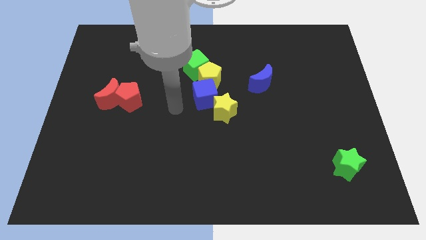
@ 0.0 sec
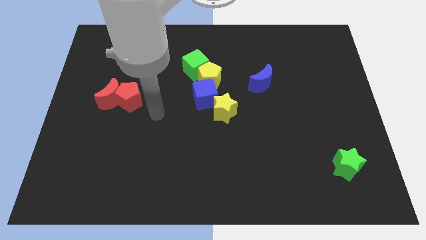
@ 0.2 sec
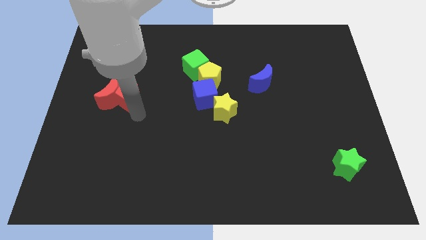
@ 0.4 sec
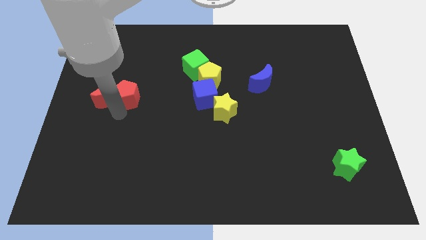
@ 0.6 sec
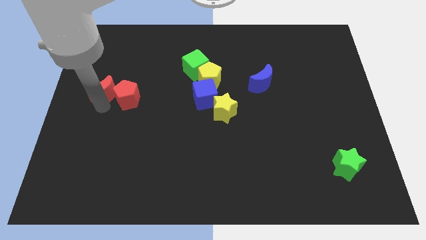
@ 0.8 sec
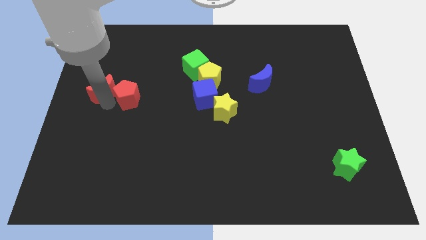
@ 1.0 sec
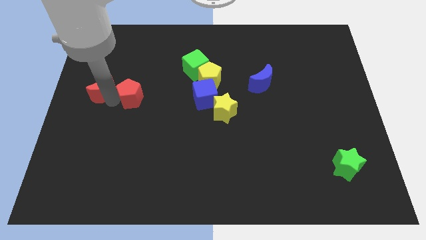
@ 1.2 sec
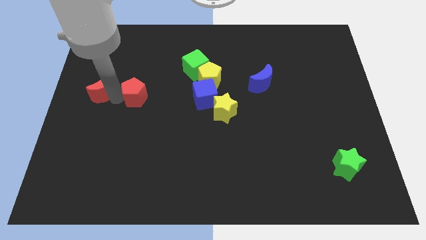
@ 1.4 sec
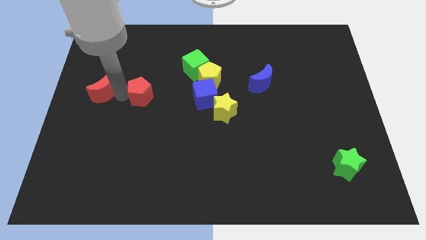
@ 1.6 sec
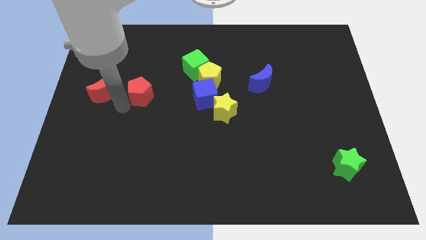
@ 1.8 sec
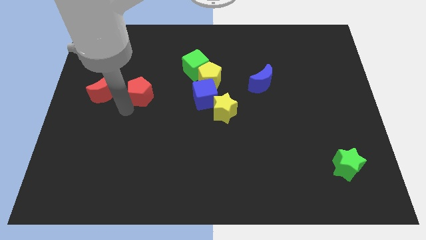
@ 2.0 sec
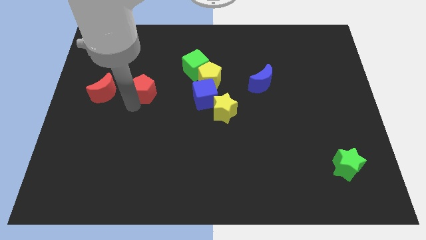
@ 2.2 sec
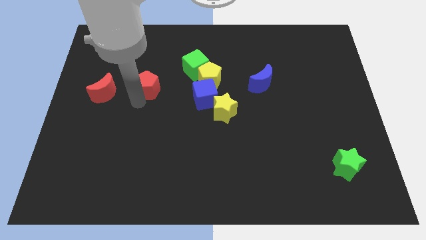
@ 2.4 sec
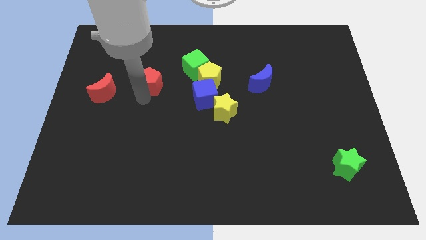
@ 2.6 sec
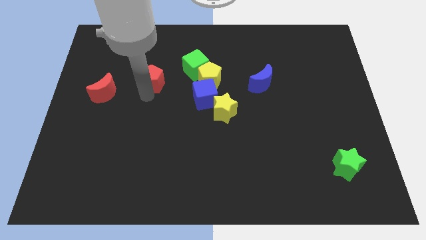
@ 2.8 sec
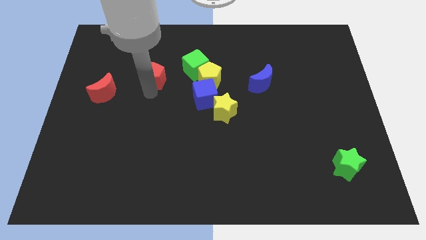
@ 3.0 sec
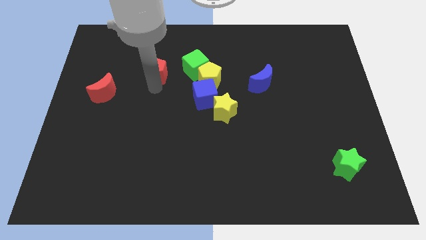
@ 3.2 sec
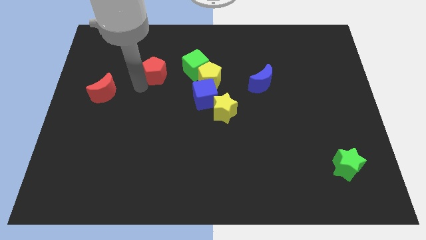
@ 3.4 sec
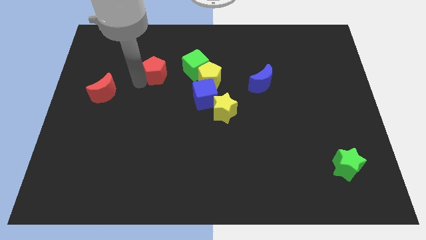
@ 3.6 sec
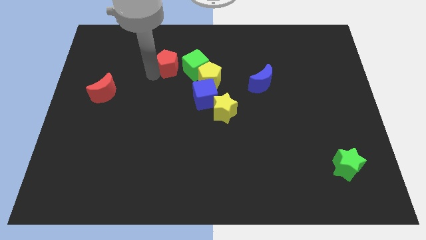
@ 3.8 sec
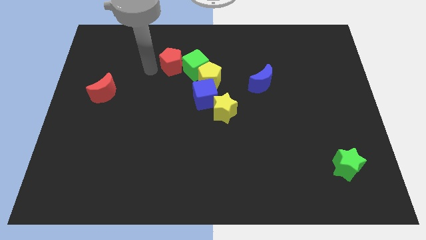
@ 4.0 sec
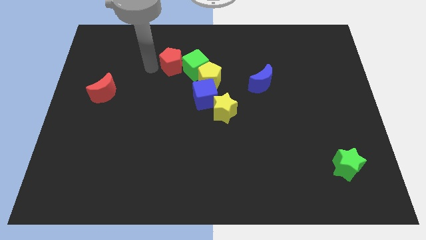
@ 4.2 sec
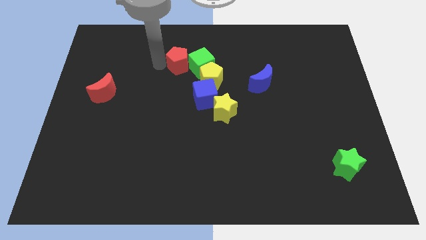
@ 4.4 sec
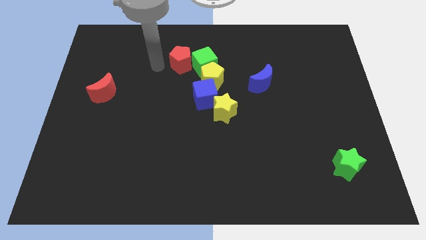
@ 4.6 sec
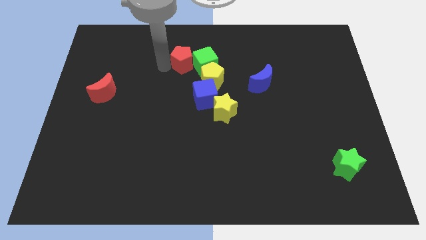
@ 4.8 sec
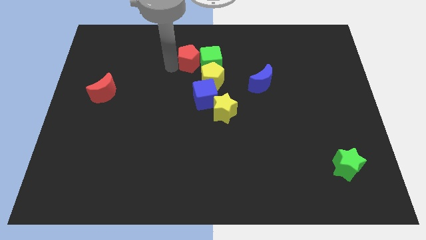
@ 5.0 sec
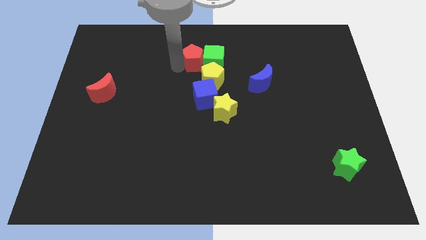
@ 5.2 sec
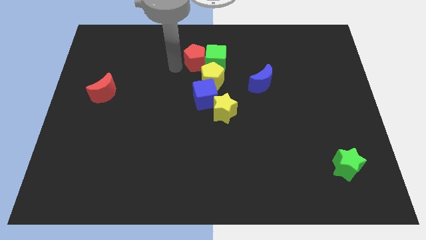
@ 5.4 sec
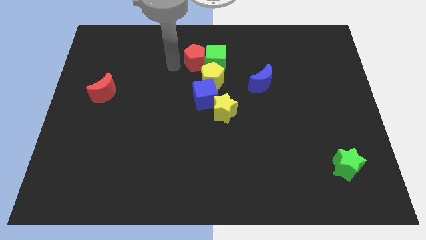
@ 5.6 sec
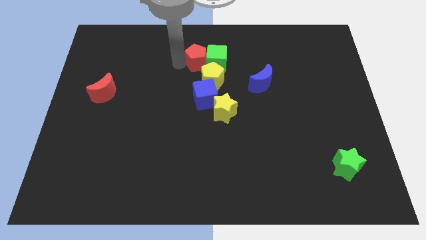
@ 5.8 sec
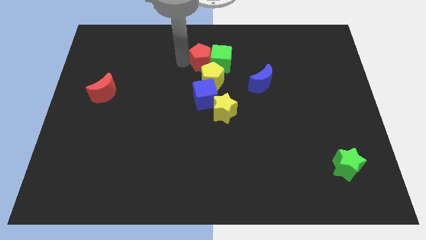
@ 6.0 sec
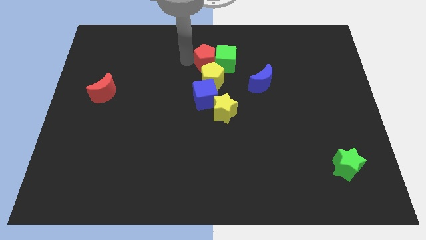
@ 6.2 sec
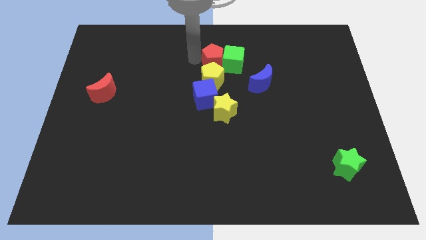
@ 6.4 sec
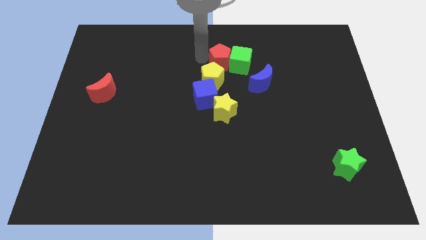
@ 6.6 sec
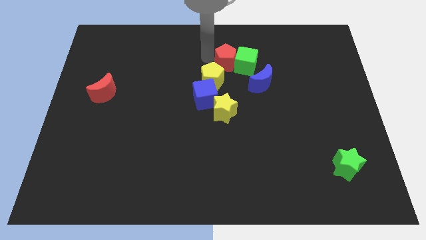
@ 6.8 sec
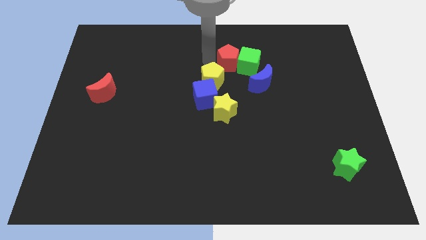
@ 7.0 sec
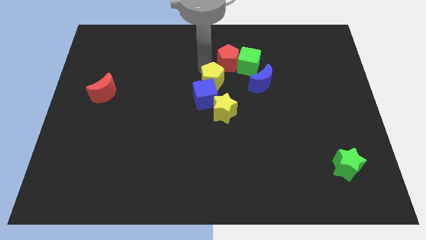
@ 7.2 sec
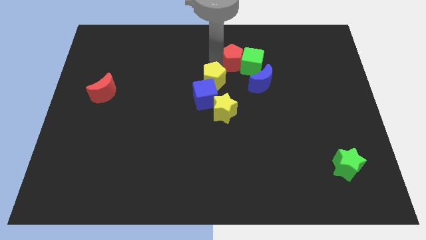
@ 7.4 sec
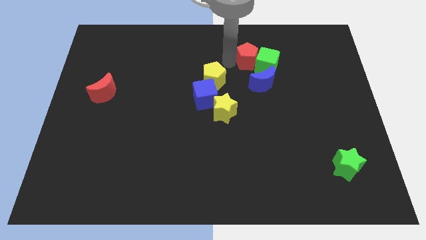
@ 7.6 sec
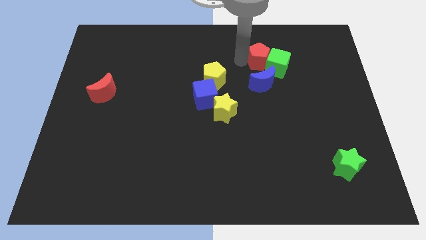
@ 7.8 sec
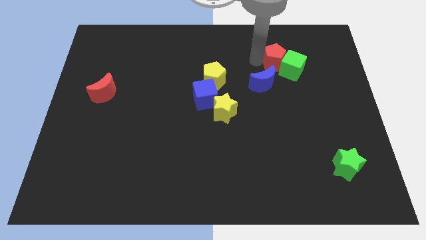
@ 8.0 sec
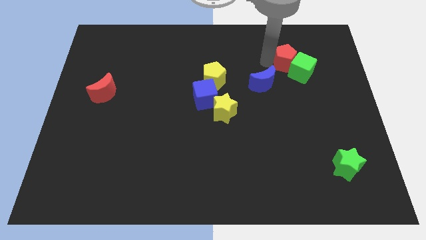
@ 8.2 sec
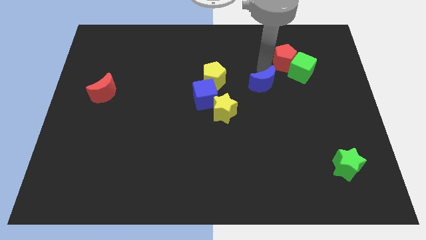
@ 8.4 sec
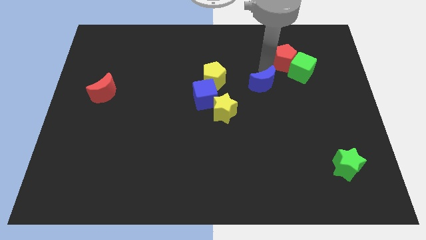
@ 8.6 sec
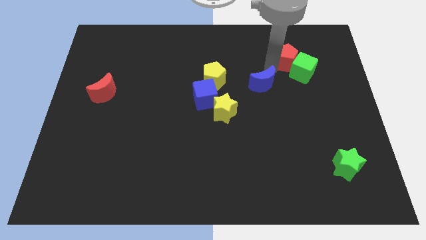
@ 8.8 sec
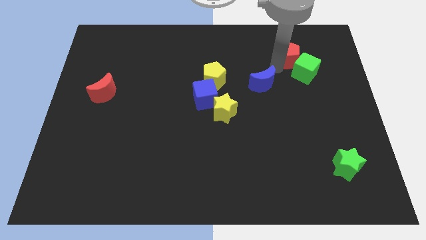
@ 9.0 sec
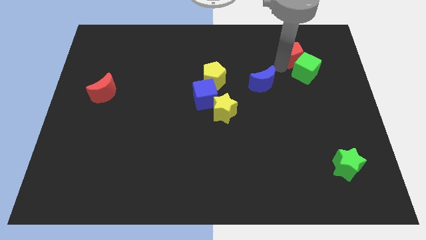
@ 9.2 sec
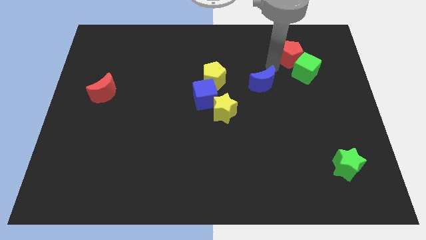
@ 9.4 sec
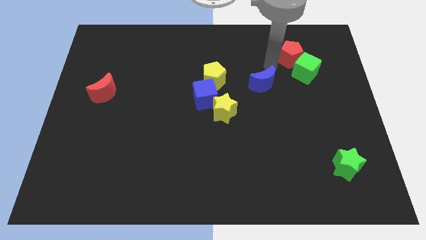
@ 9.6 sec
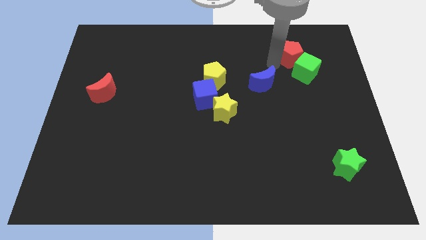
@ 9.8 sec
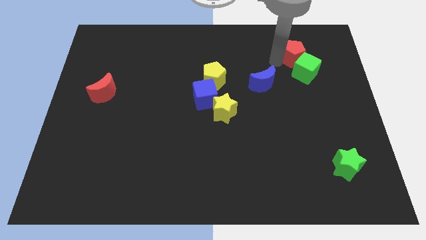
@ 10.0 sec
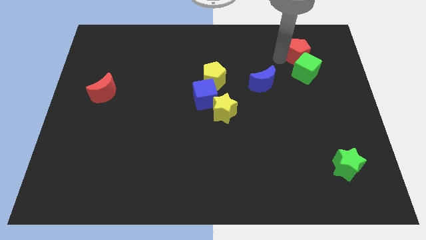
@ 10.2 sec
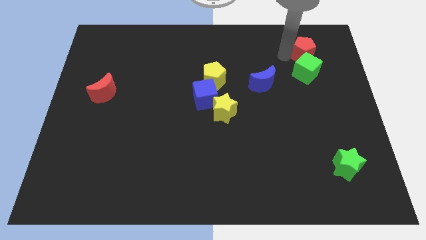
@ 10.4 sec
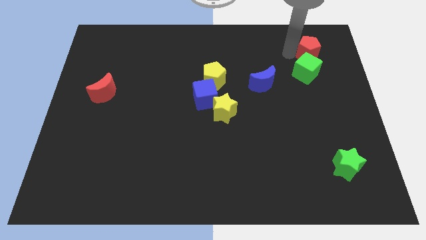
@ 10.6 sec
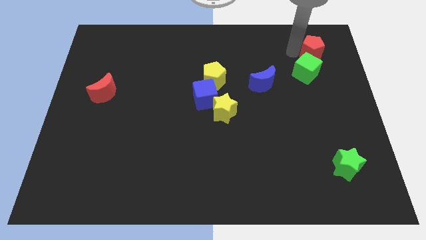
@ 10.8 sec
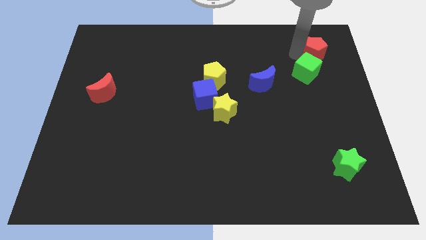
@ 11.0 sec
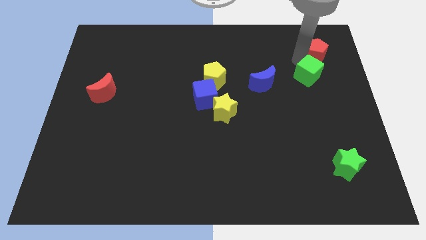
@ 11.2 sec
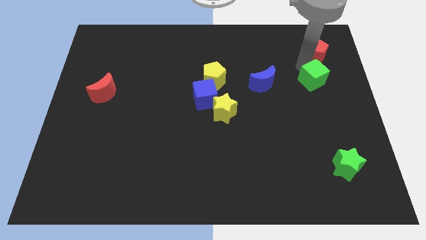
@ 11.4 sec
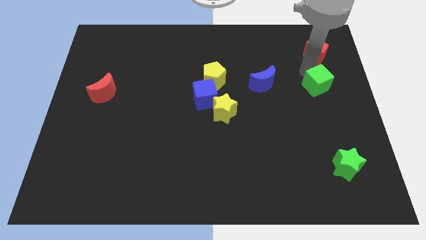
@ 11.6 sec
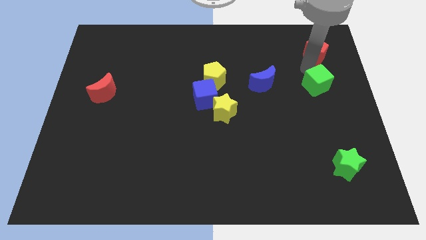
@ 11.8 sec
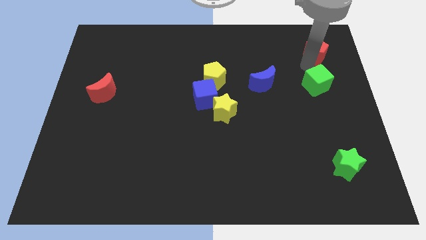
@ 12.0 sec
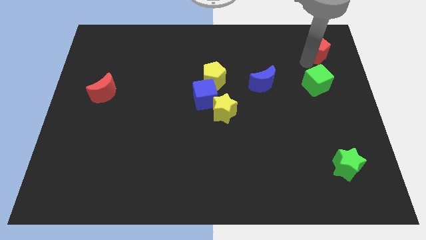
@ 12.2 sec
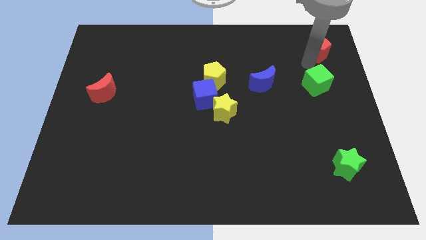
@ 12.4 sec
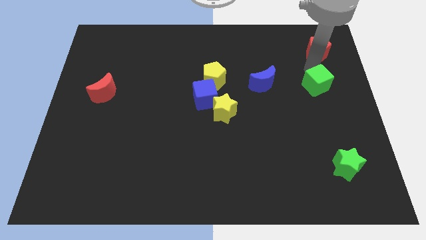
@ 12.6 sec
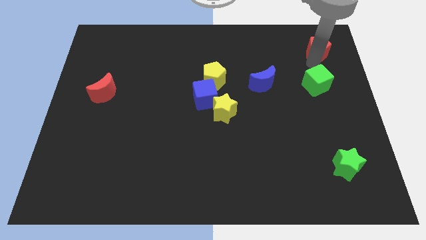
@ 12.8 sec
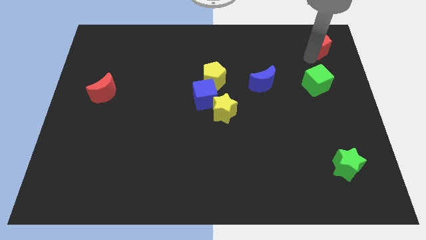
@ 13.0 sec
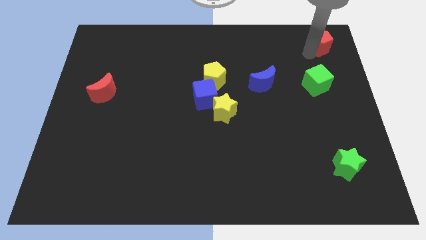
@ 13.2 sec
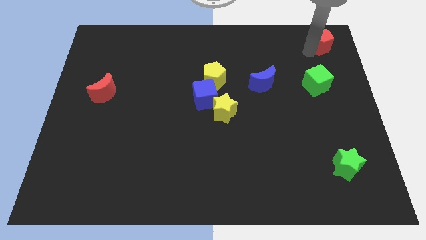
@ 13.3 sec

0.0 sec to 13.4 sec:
put the red pentagon to the top right corner

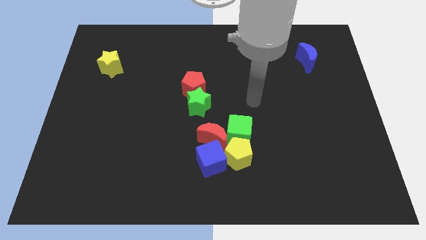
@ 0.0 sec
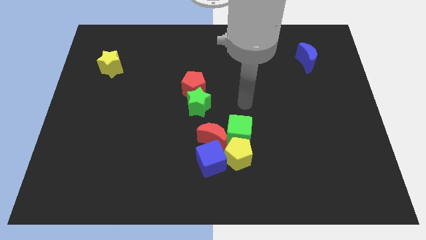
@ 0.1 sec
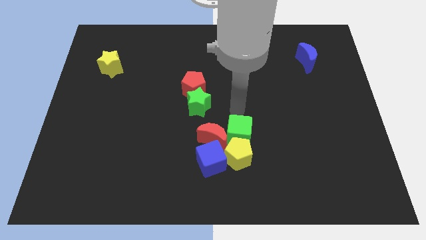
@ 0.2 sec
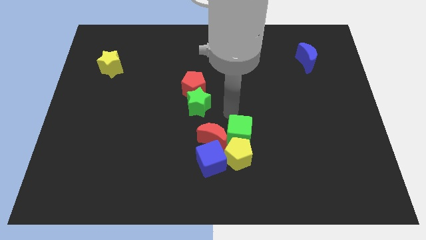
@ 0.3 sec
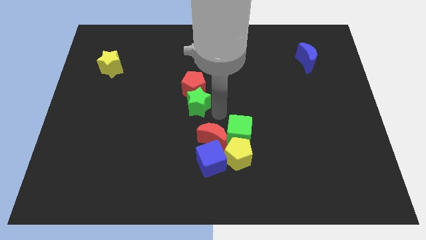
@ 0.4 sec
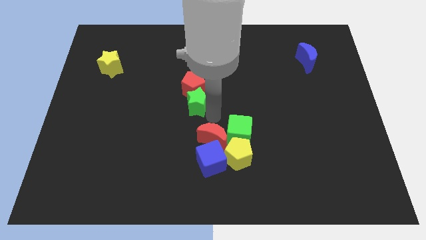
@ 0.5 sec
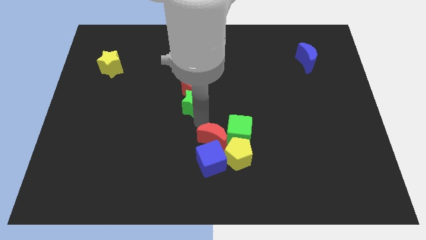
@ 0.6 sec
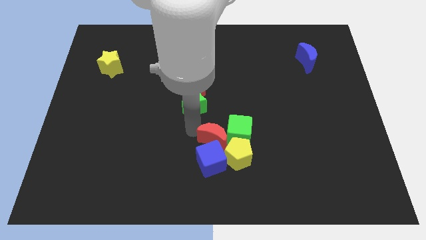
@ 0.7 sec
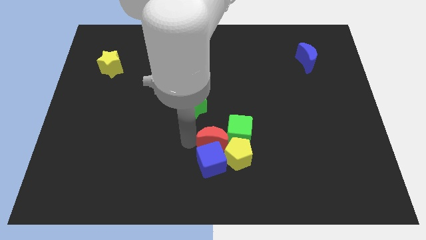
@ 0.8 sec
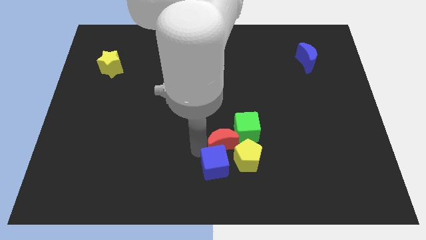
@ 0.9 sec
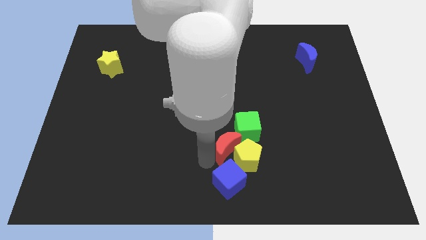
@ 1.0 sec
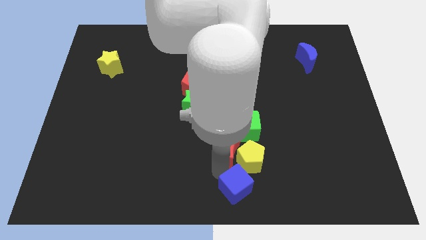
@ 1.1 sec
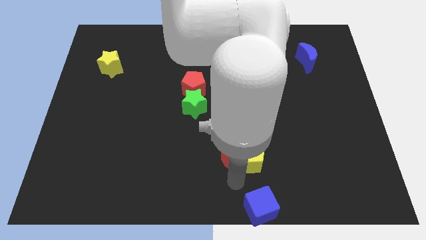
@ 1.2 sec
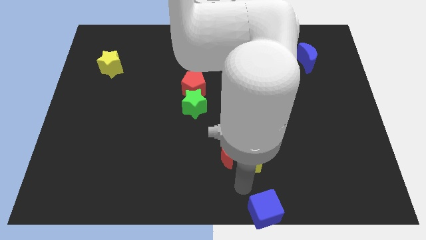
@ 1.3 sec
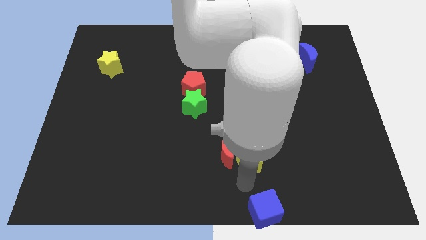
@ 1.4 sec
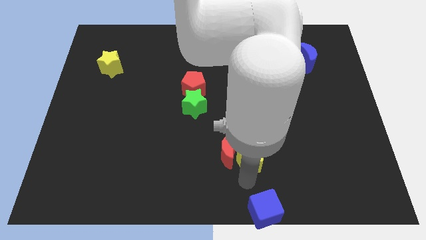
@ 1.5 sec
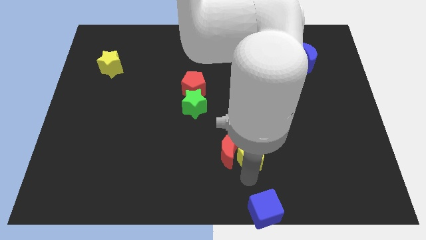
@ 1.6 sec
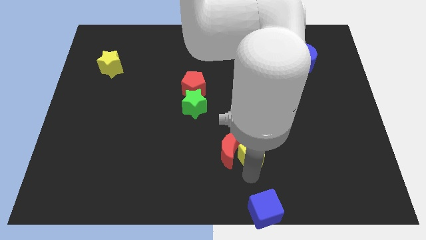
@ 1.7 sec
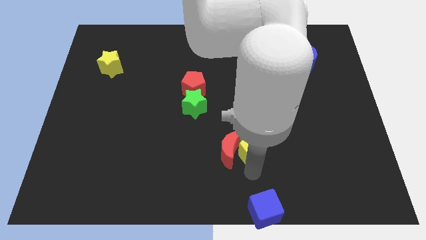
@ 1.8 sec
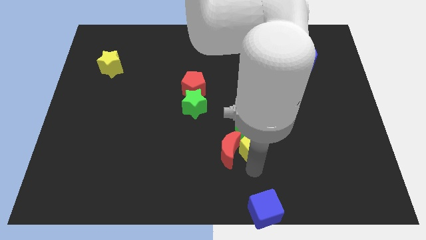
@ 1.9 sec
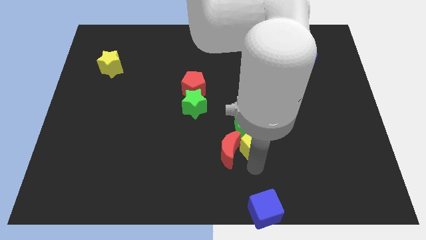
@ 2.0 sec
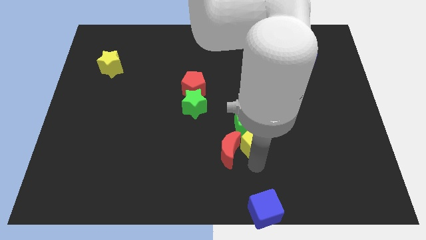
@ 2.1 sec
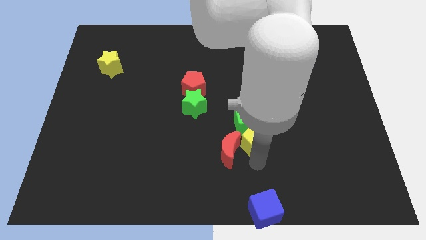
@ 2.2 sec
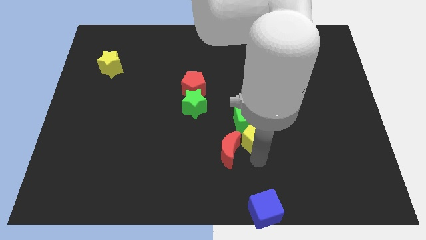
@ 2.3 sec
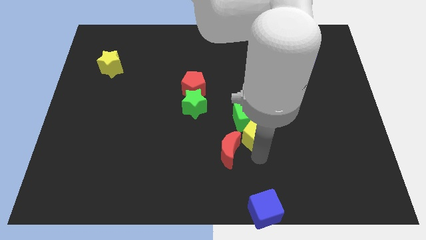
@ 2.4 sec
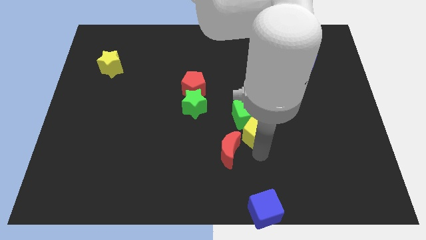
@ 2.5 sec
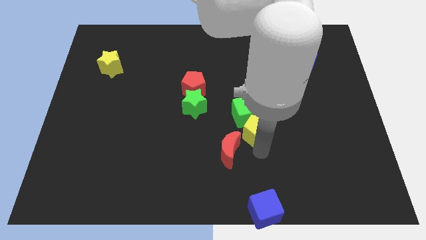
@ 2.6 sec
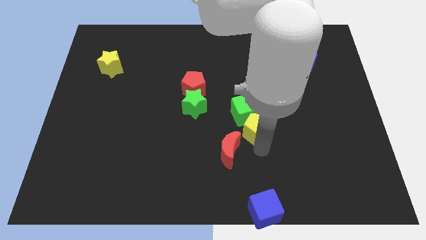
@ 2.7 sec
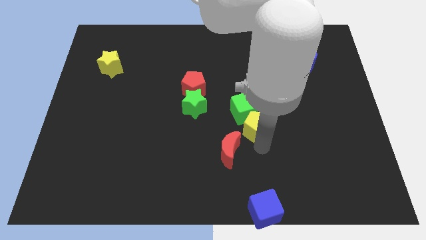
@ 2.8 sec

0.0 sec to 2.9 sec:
put the yellow pentagon to the middle of the board
